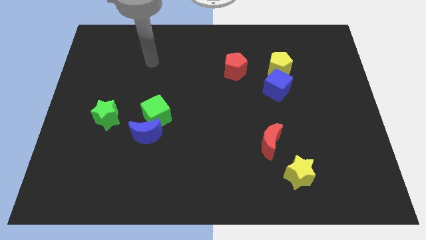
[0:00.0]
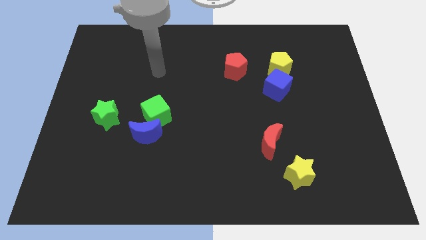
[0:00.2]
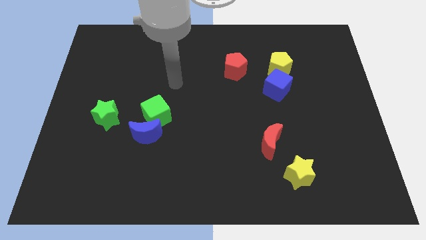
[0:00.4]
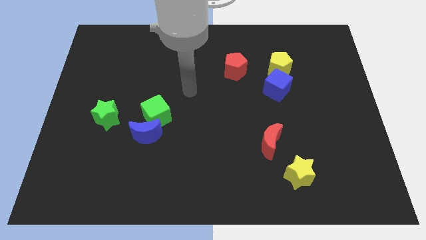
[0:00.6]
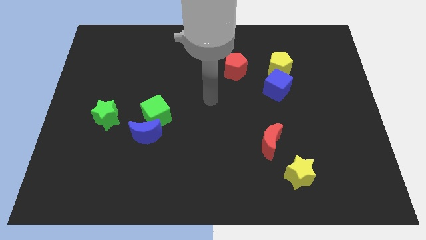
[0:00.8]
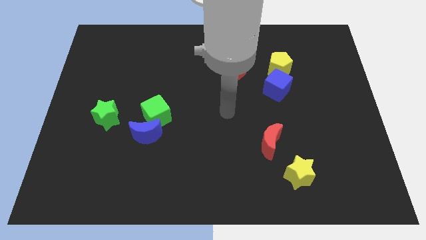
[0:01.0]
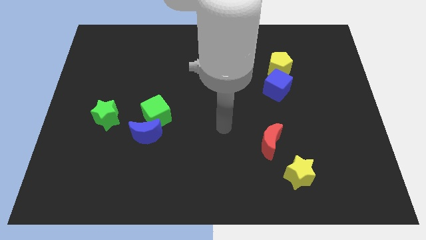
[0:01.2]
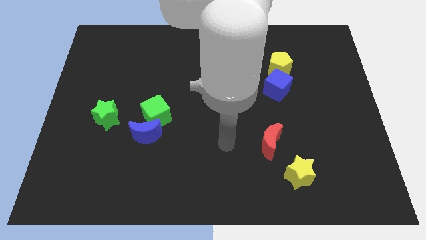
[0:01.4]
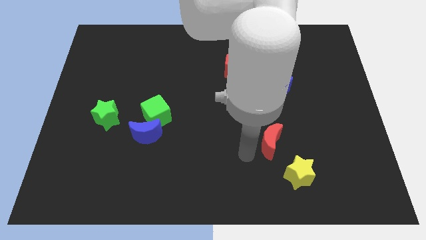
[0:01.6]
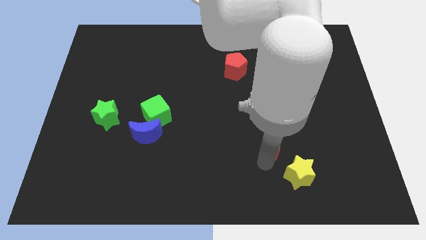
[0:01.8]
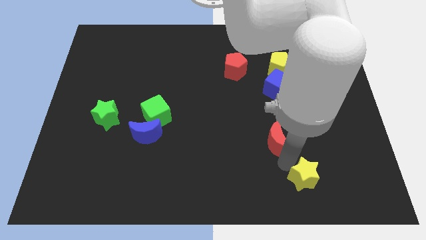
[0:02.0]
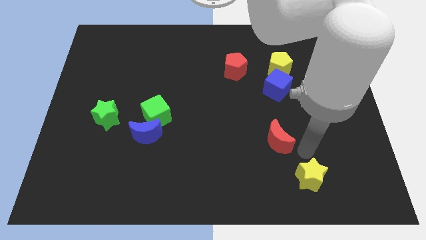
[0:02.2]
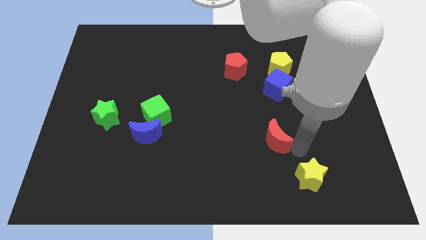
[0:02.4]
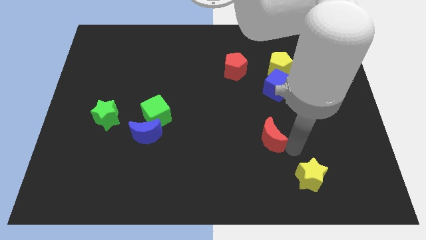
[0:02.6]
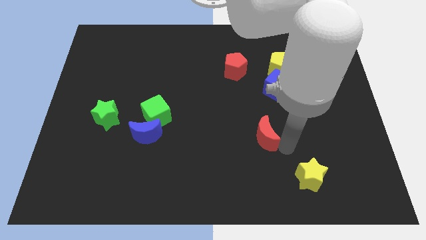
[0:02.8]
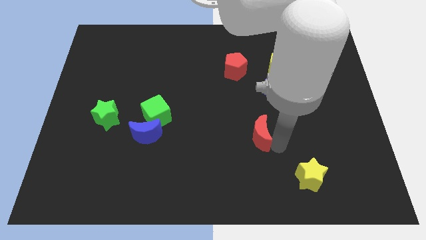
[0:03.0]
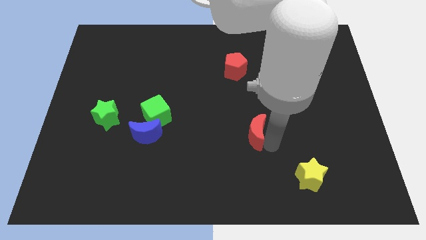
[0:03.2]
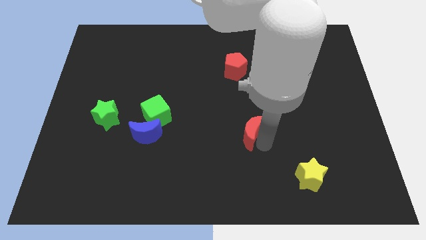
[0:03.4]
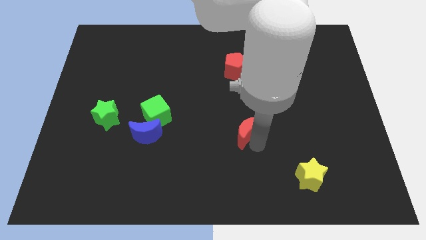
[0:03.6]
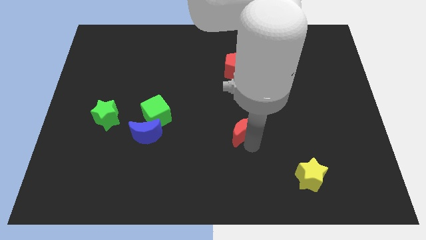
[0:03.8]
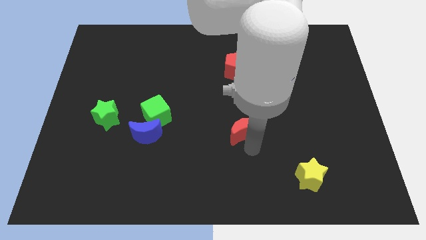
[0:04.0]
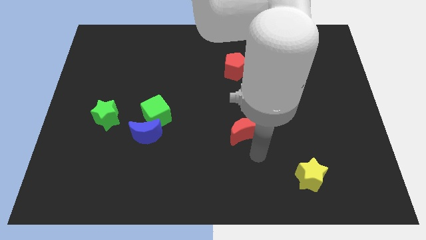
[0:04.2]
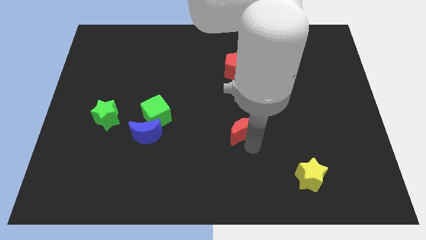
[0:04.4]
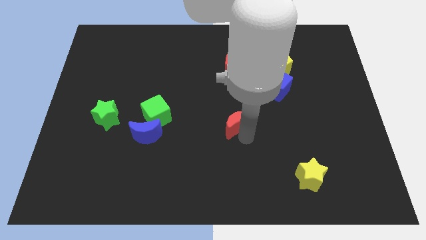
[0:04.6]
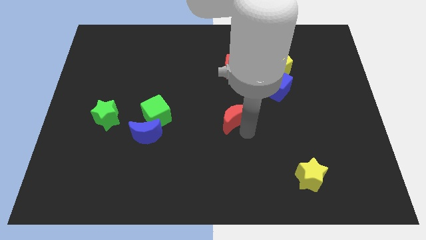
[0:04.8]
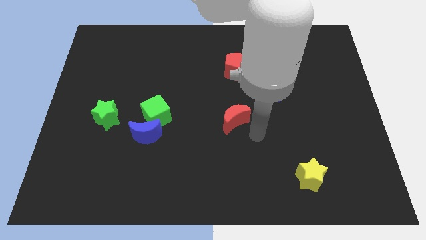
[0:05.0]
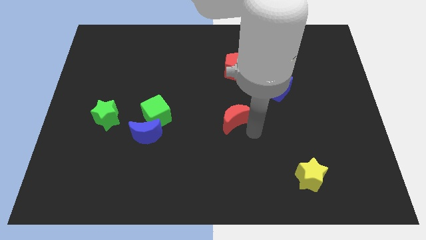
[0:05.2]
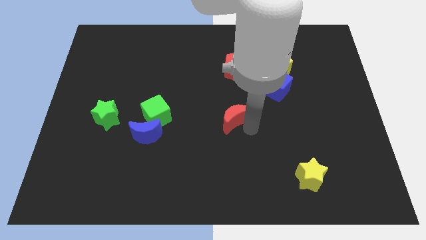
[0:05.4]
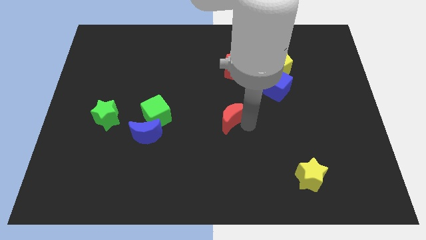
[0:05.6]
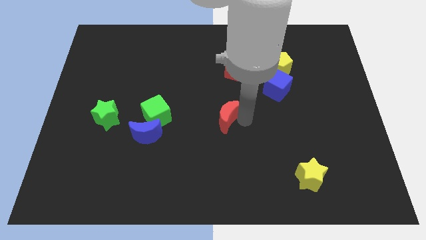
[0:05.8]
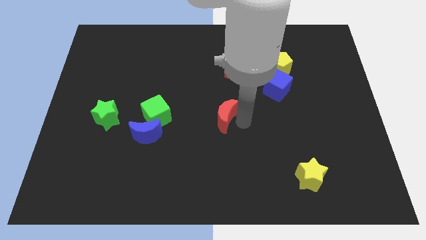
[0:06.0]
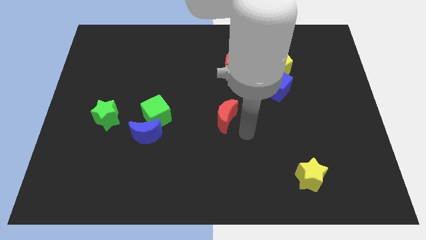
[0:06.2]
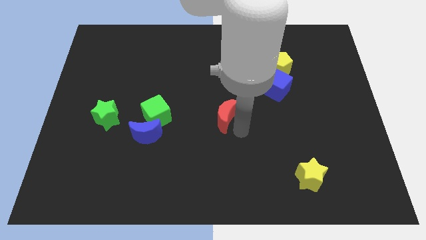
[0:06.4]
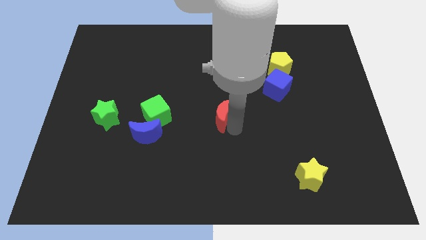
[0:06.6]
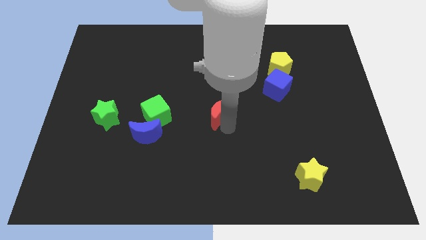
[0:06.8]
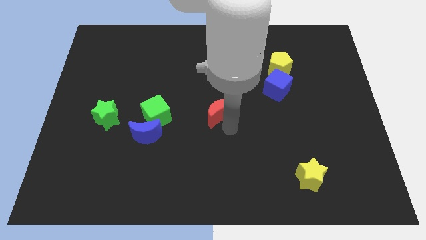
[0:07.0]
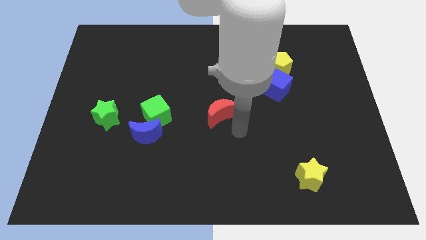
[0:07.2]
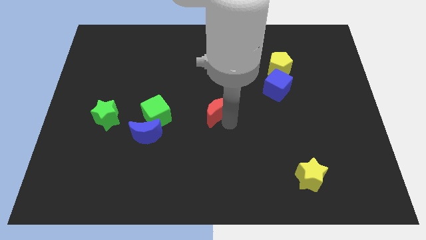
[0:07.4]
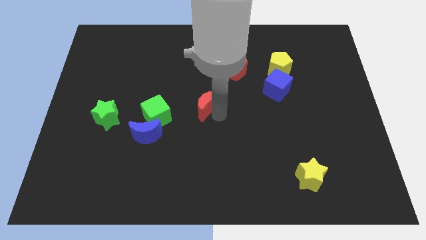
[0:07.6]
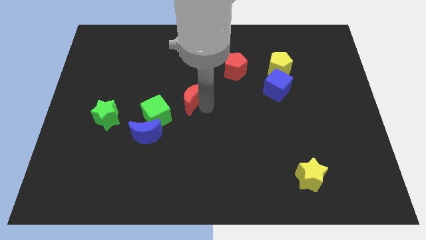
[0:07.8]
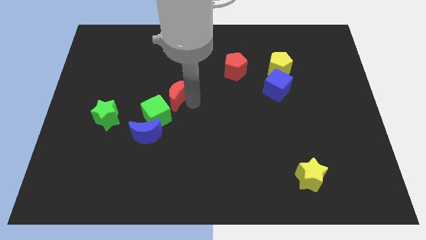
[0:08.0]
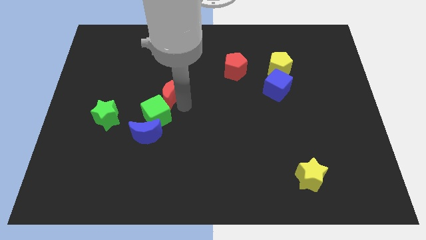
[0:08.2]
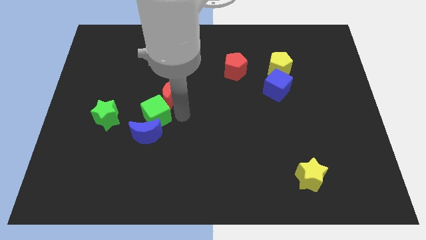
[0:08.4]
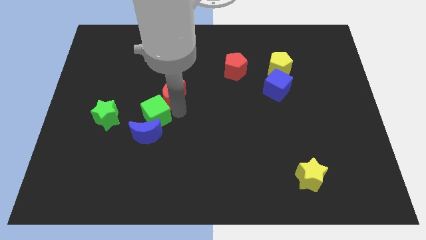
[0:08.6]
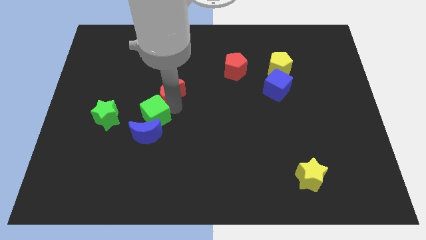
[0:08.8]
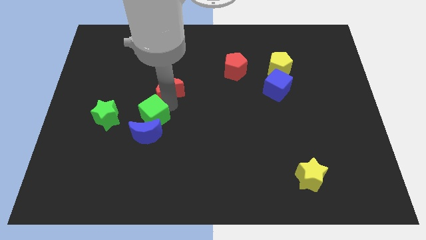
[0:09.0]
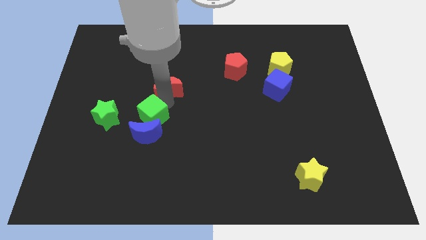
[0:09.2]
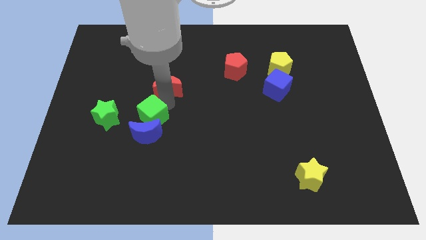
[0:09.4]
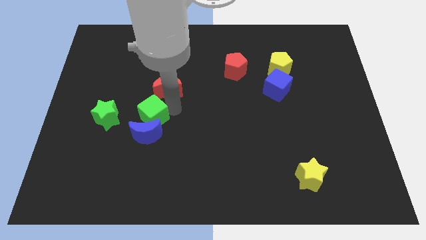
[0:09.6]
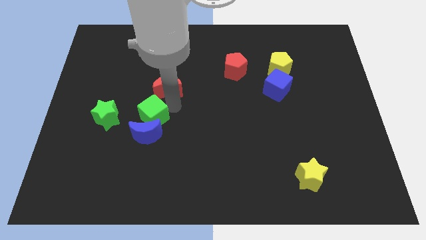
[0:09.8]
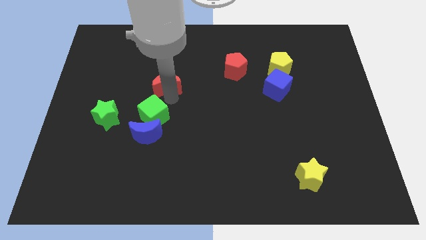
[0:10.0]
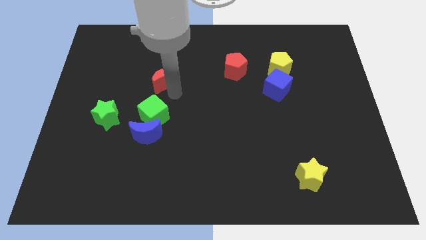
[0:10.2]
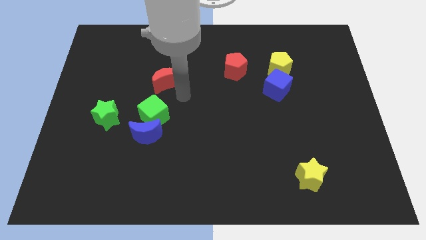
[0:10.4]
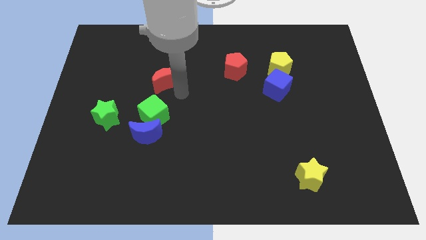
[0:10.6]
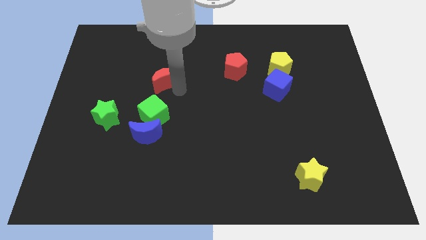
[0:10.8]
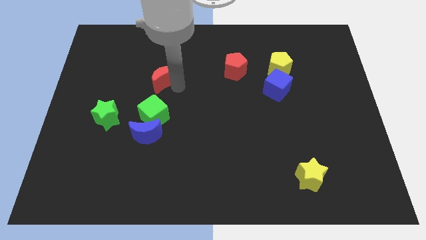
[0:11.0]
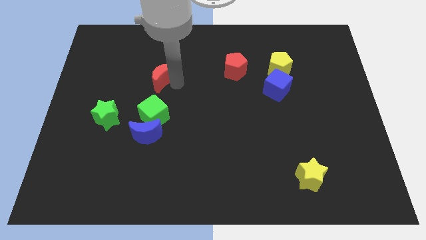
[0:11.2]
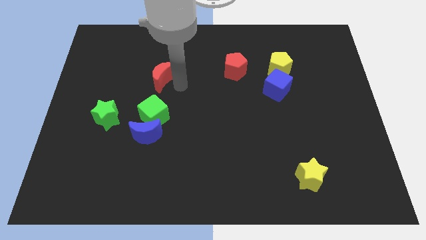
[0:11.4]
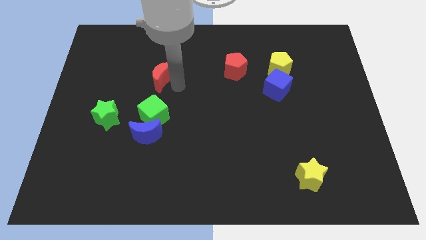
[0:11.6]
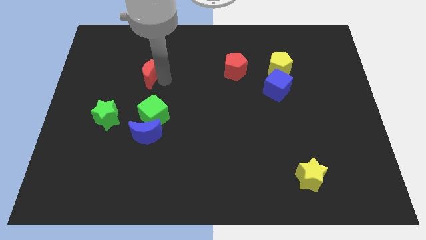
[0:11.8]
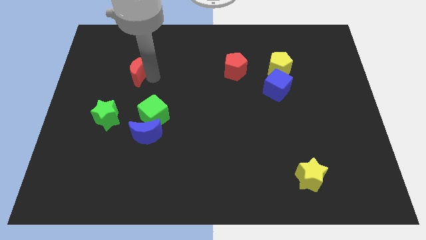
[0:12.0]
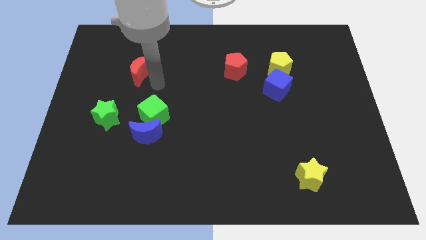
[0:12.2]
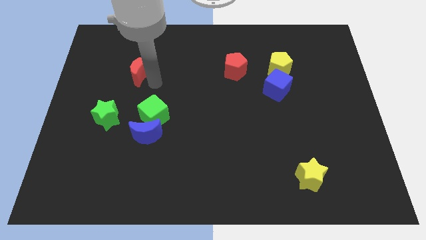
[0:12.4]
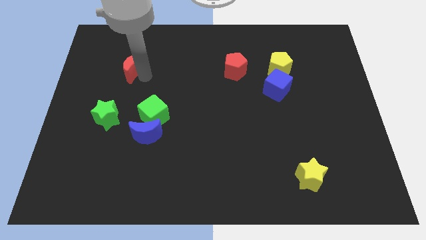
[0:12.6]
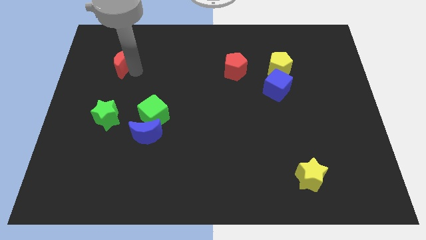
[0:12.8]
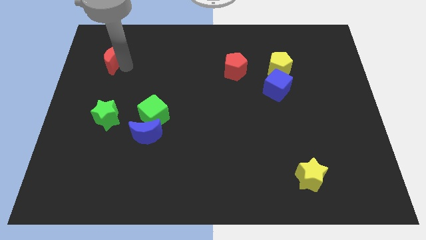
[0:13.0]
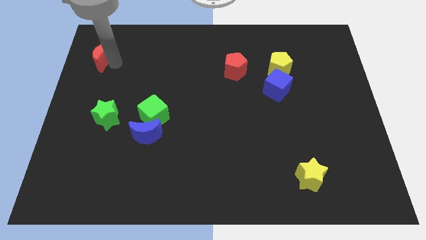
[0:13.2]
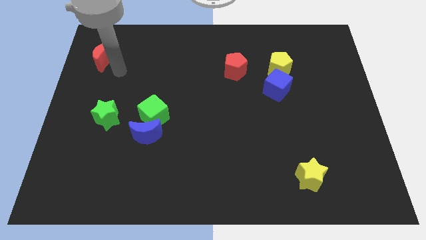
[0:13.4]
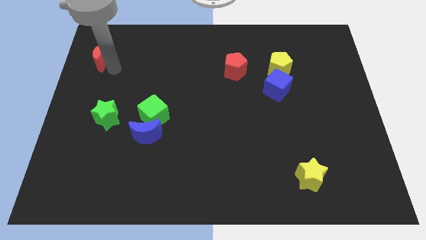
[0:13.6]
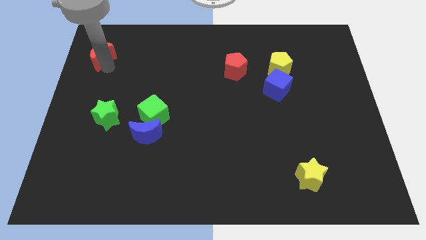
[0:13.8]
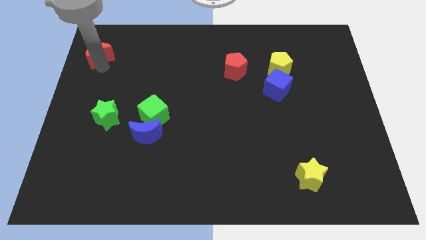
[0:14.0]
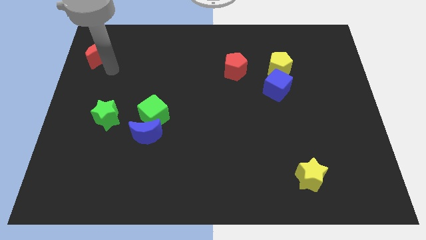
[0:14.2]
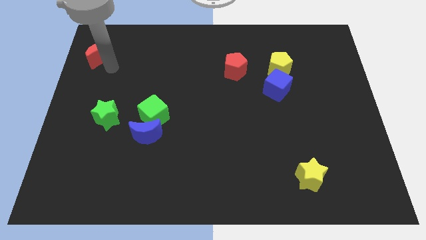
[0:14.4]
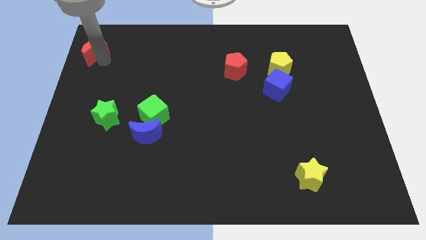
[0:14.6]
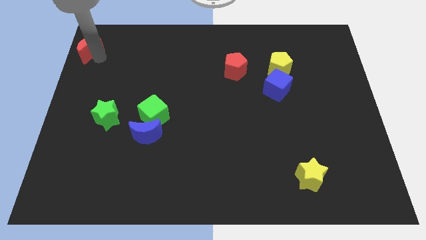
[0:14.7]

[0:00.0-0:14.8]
move the red moon to the upper left corner
